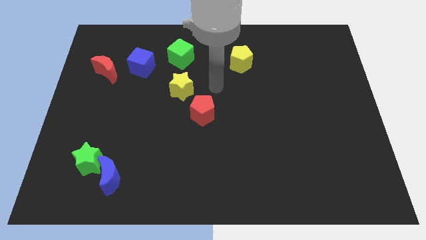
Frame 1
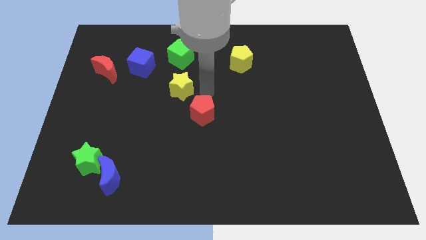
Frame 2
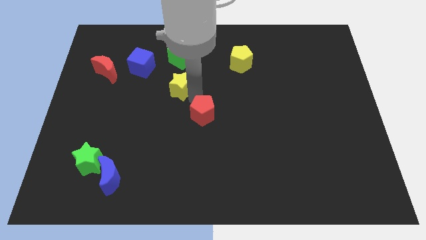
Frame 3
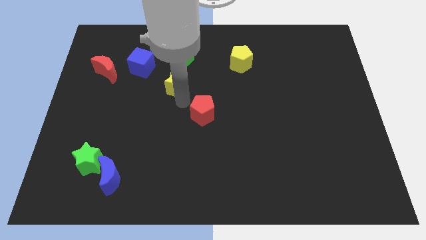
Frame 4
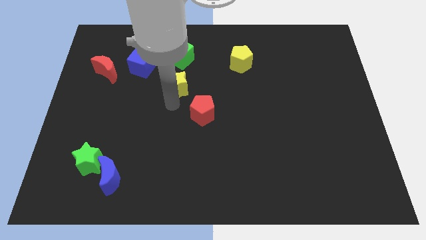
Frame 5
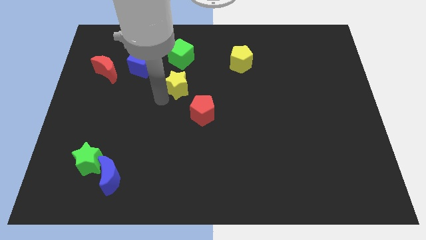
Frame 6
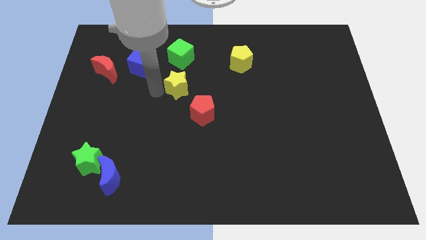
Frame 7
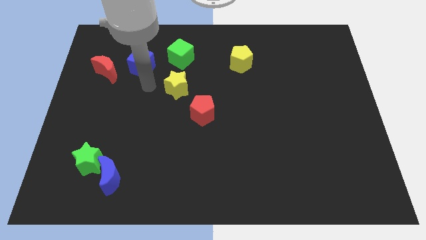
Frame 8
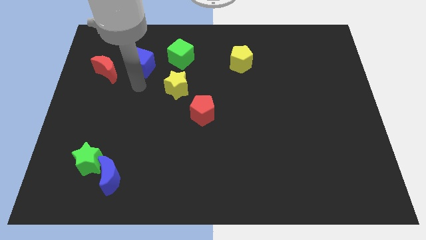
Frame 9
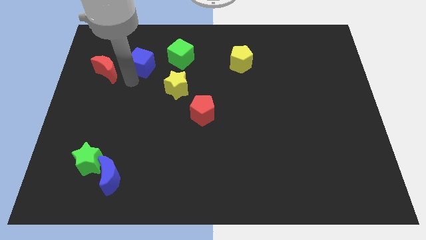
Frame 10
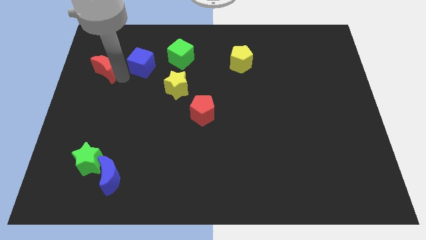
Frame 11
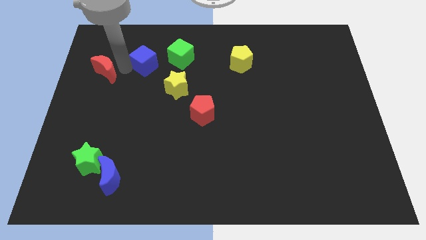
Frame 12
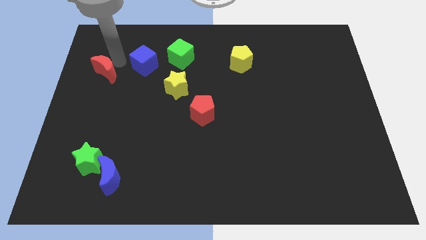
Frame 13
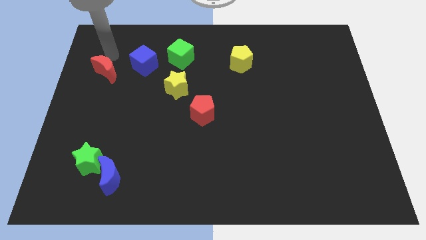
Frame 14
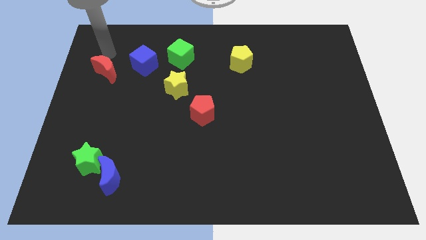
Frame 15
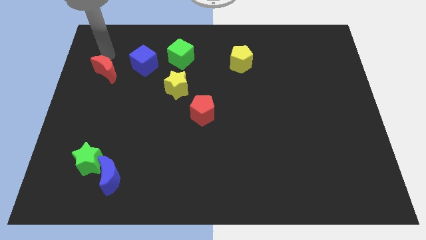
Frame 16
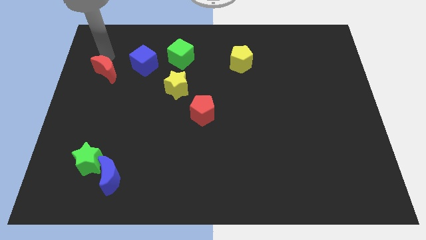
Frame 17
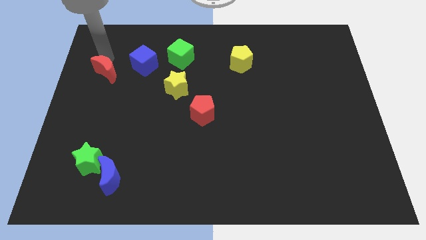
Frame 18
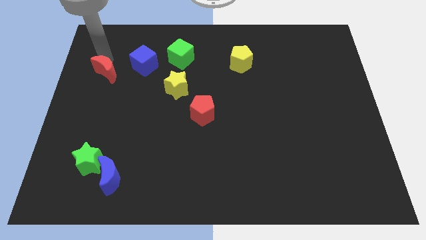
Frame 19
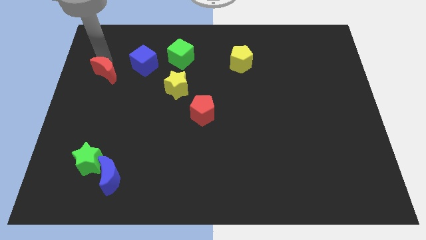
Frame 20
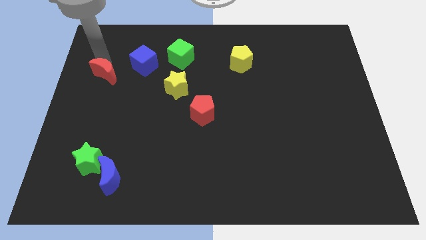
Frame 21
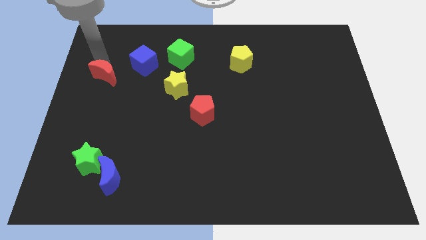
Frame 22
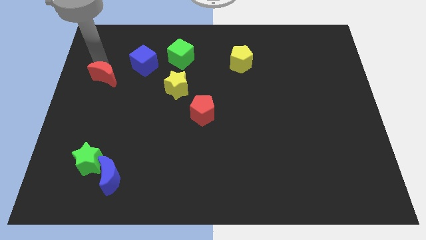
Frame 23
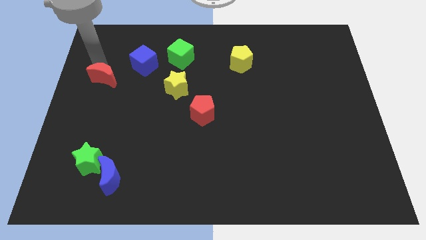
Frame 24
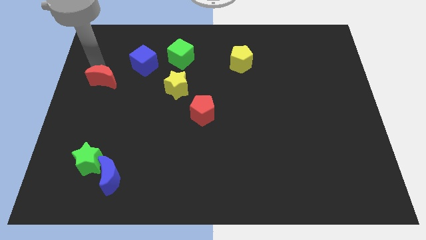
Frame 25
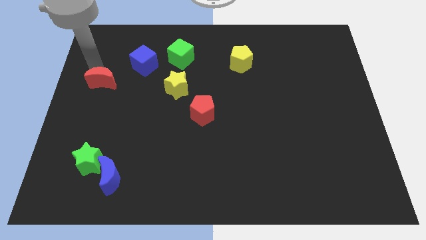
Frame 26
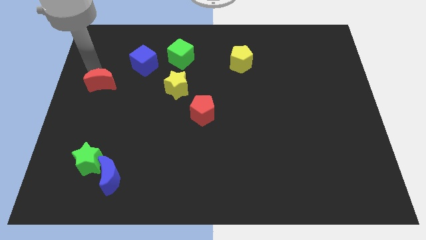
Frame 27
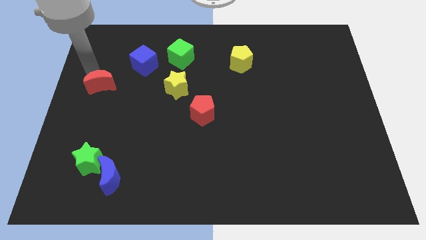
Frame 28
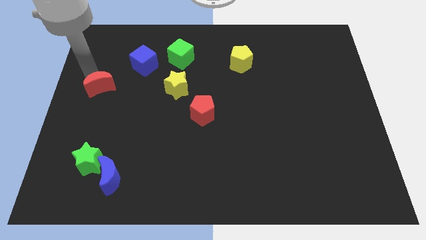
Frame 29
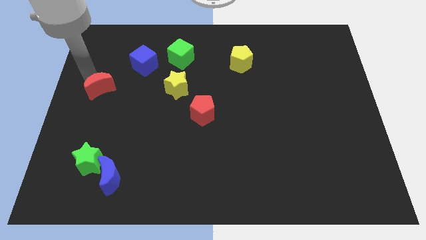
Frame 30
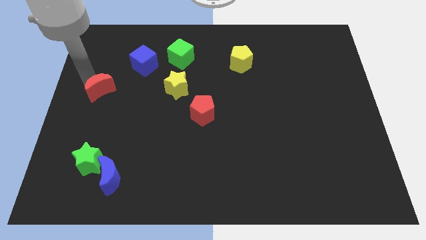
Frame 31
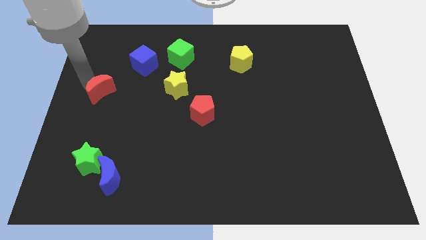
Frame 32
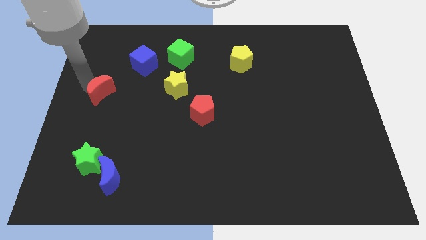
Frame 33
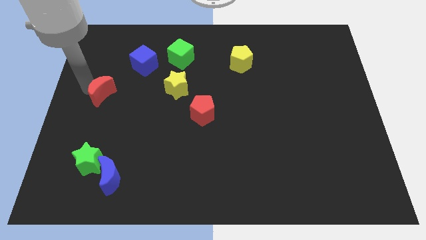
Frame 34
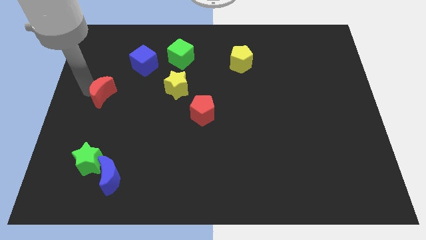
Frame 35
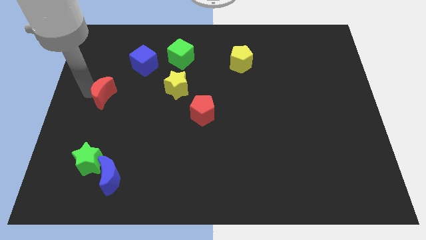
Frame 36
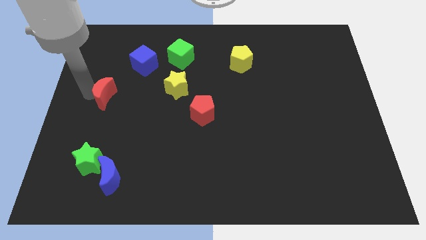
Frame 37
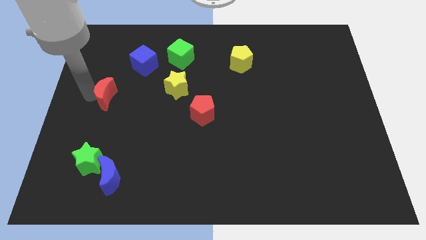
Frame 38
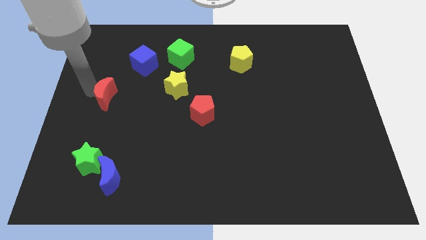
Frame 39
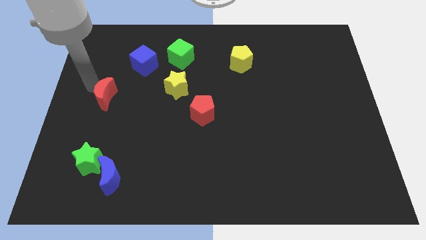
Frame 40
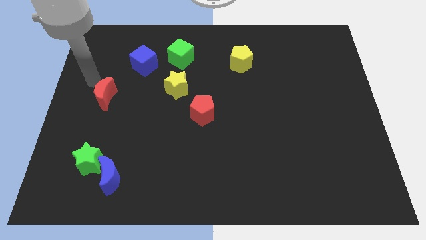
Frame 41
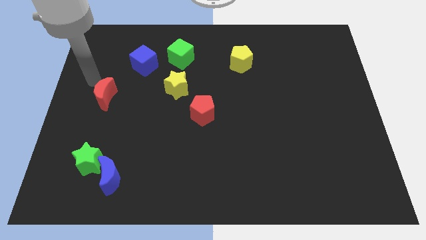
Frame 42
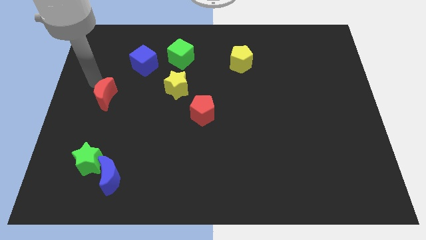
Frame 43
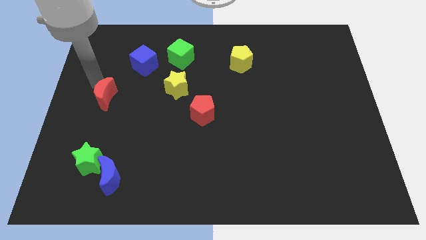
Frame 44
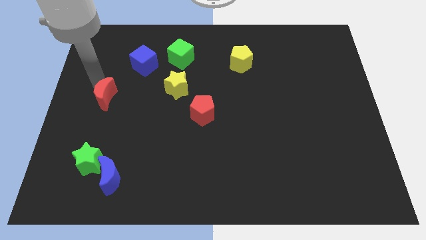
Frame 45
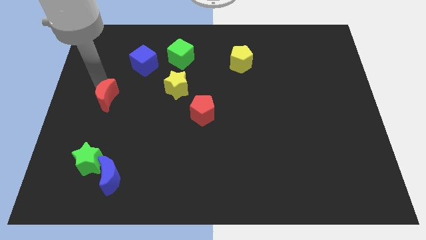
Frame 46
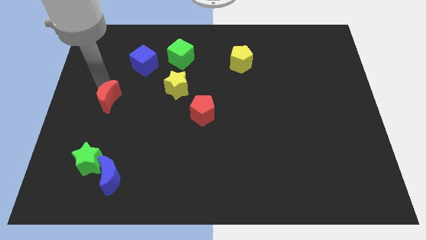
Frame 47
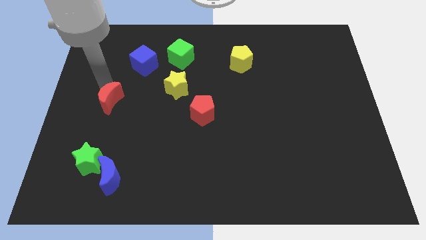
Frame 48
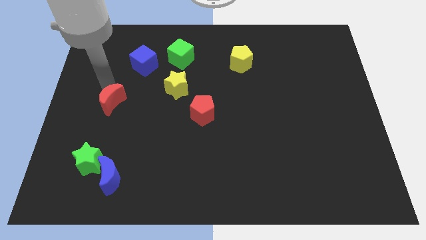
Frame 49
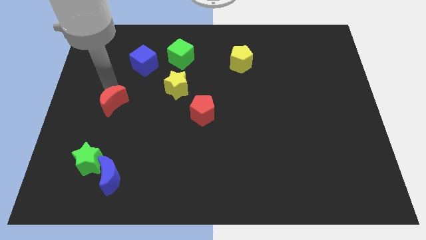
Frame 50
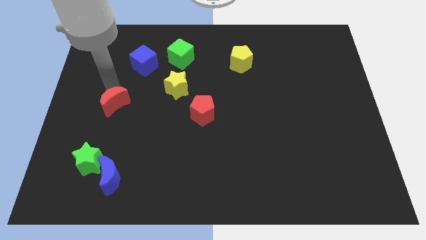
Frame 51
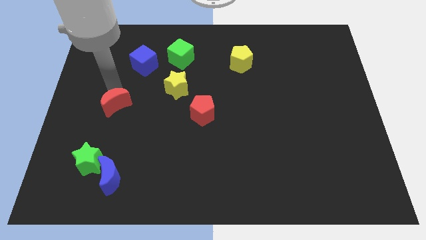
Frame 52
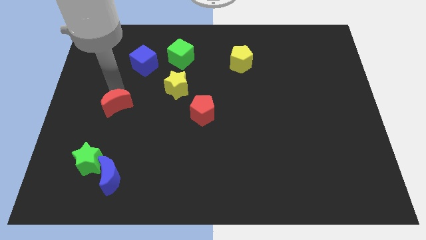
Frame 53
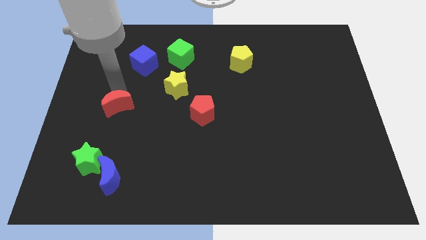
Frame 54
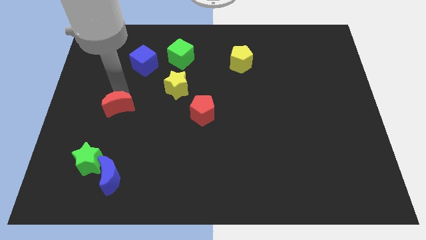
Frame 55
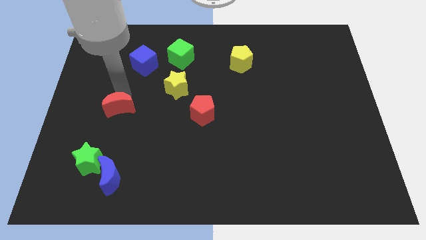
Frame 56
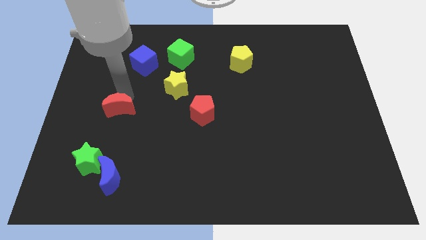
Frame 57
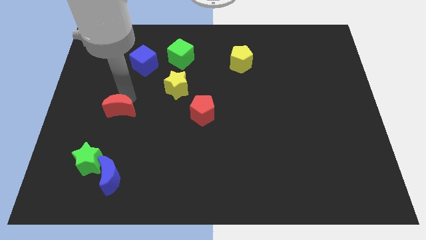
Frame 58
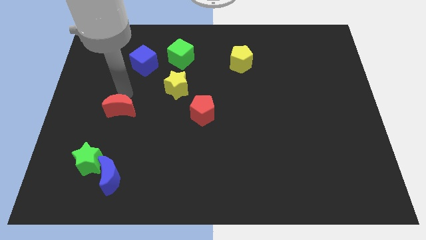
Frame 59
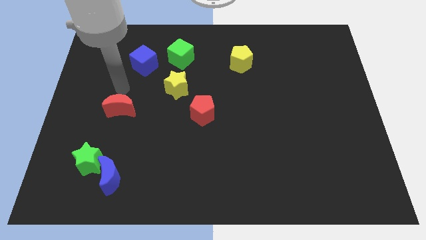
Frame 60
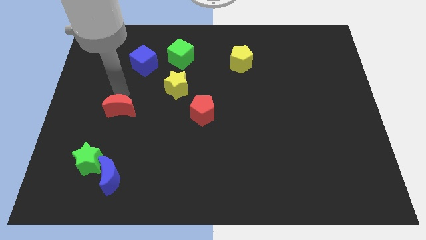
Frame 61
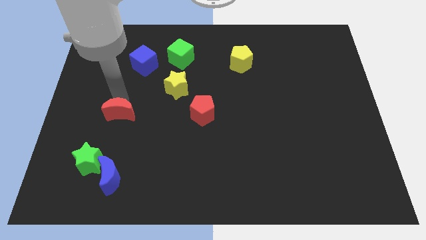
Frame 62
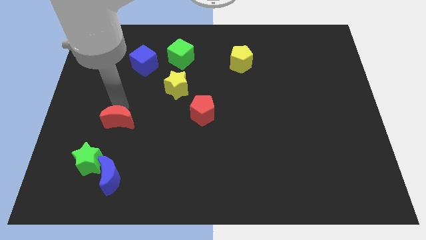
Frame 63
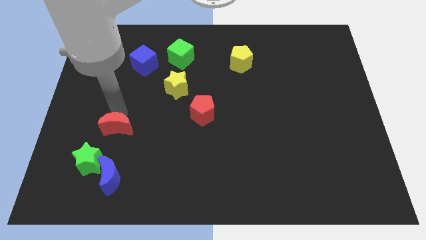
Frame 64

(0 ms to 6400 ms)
push the red moon to the top right of the green star
